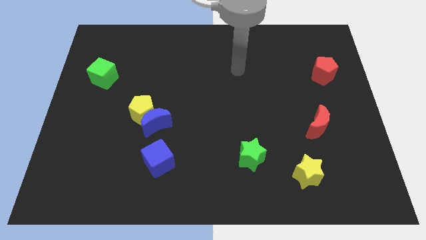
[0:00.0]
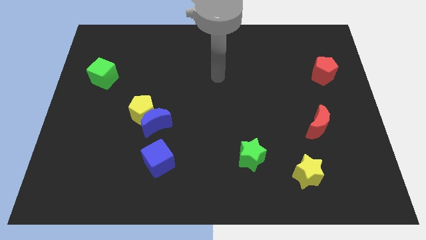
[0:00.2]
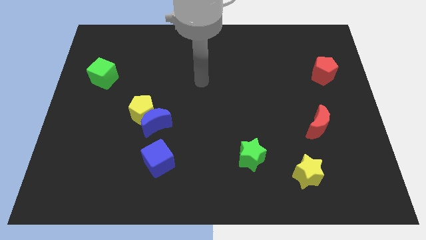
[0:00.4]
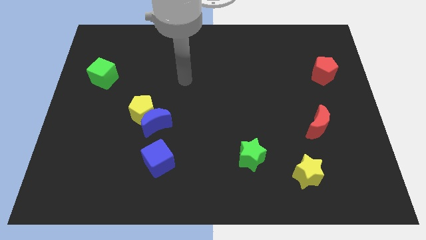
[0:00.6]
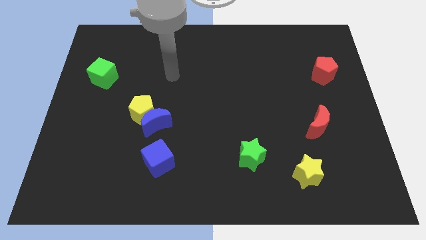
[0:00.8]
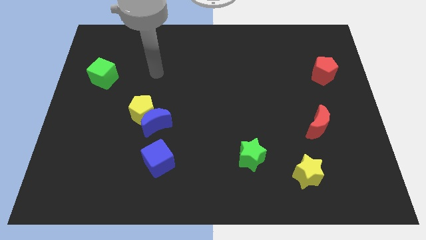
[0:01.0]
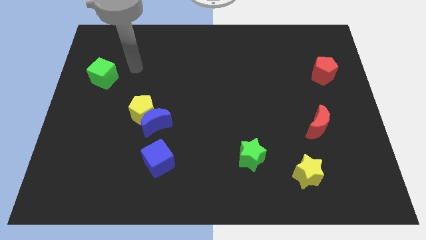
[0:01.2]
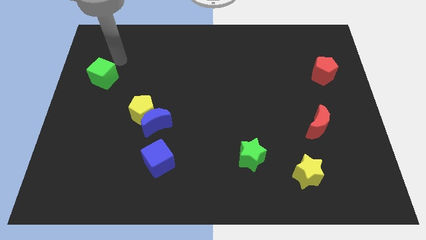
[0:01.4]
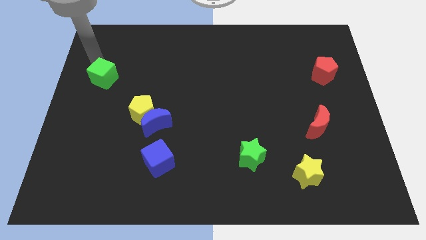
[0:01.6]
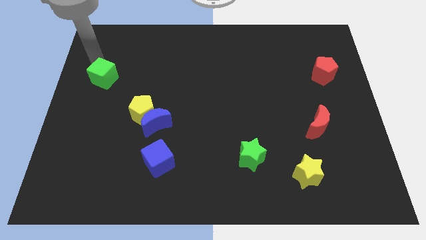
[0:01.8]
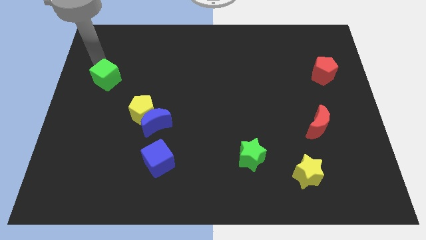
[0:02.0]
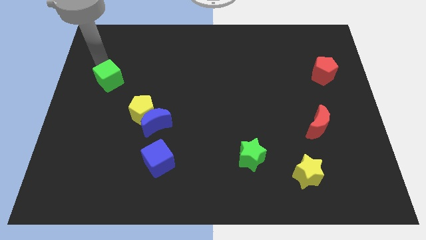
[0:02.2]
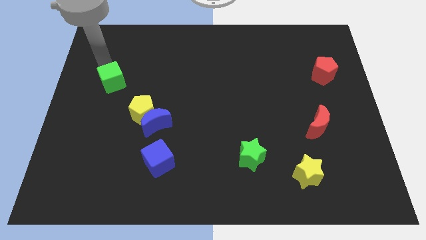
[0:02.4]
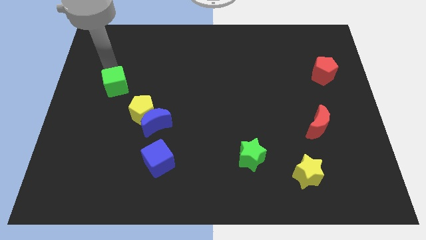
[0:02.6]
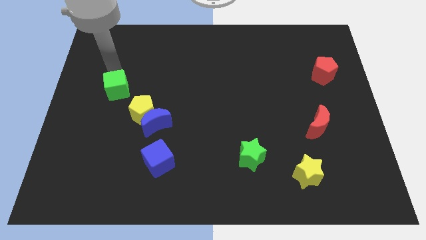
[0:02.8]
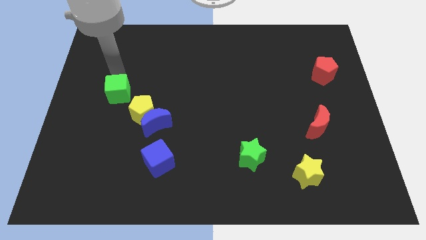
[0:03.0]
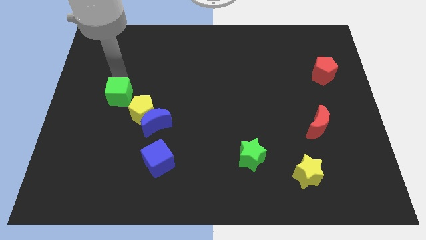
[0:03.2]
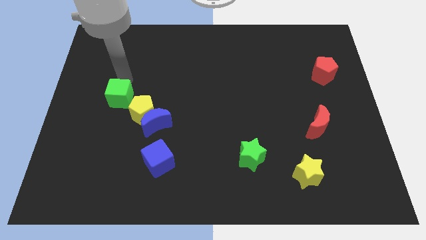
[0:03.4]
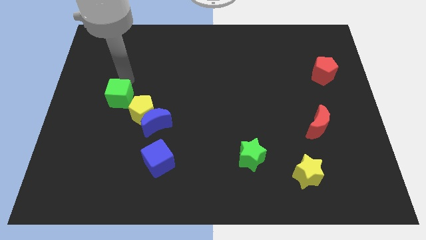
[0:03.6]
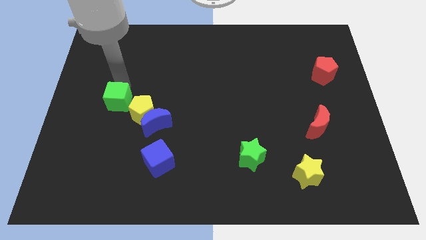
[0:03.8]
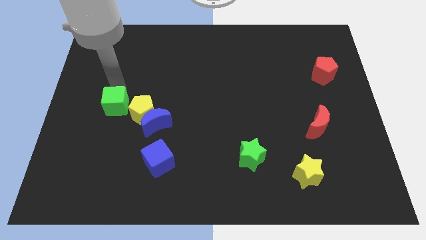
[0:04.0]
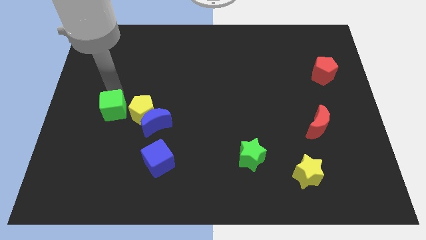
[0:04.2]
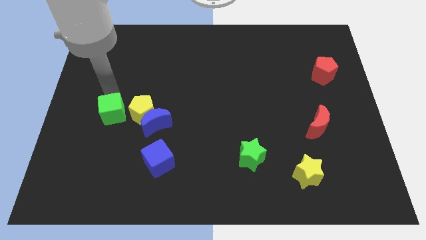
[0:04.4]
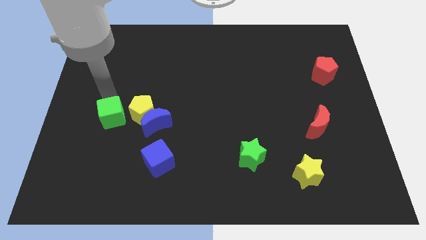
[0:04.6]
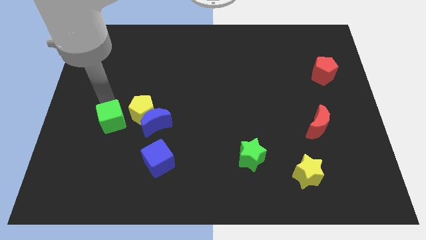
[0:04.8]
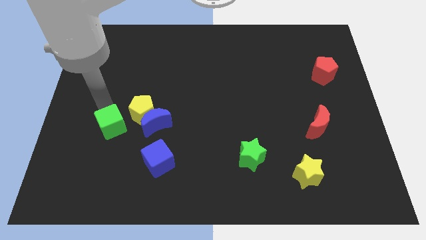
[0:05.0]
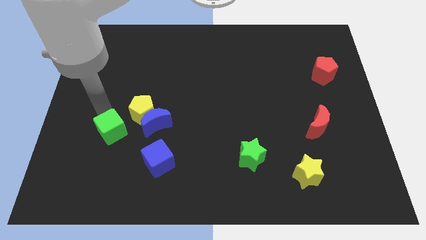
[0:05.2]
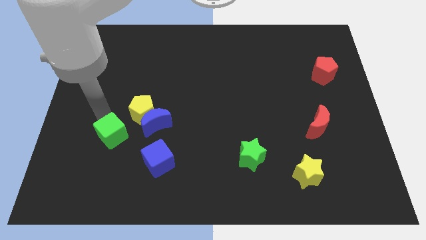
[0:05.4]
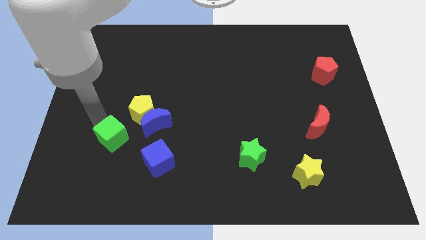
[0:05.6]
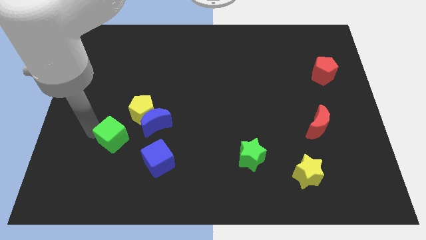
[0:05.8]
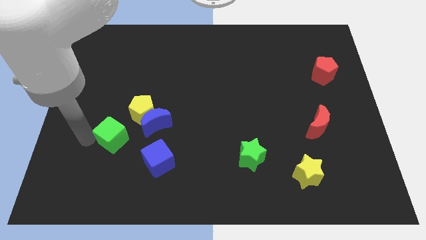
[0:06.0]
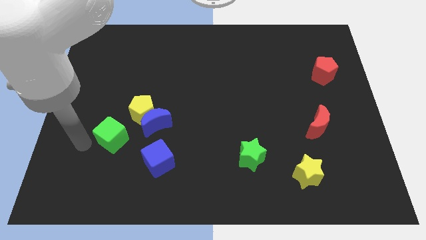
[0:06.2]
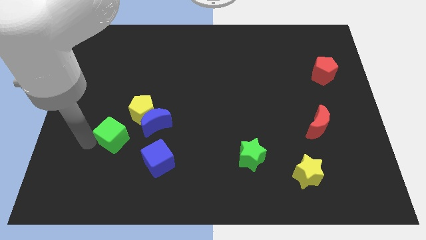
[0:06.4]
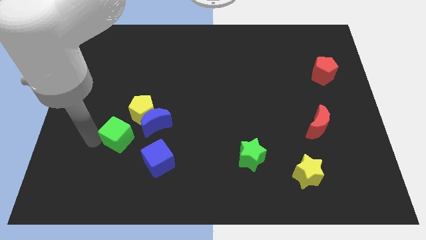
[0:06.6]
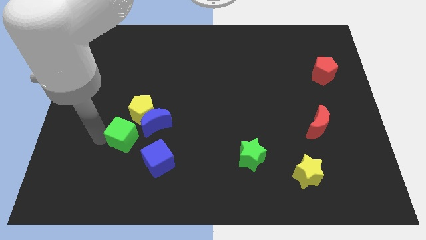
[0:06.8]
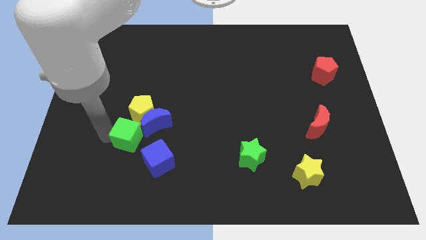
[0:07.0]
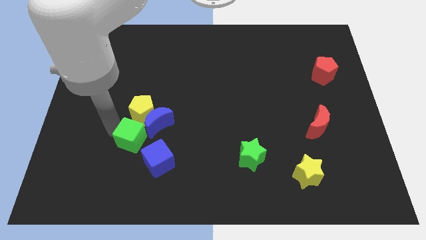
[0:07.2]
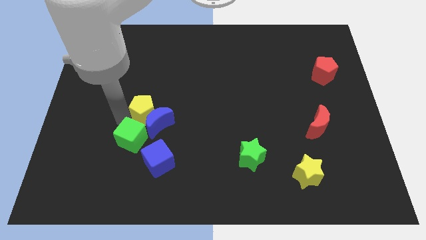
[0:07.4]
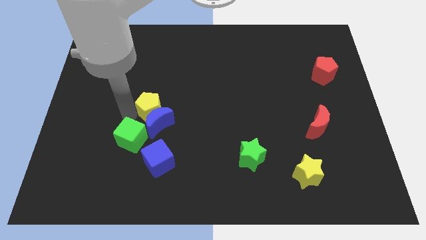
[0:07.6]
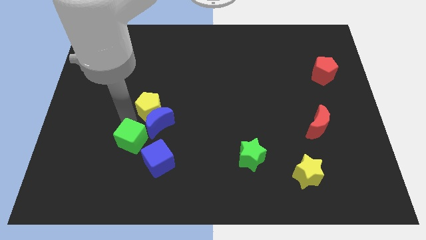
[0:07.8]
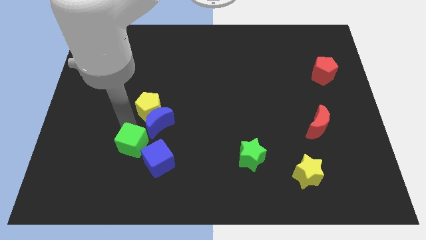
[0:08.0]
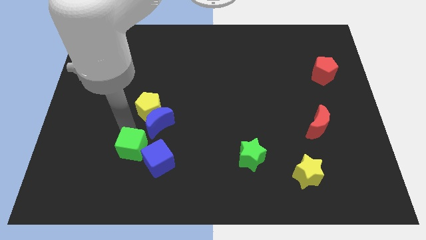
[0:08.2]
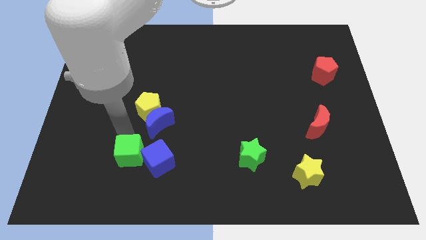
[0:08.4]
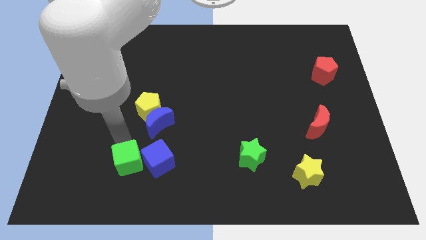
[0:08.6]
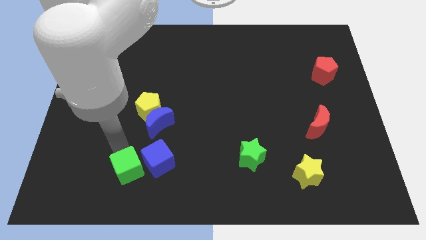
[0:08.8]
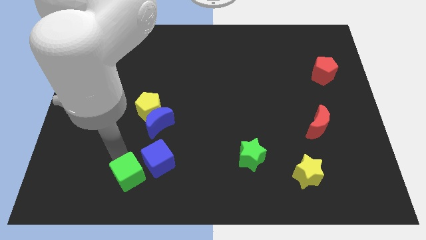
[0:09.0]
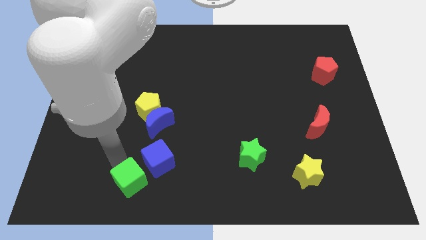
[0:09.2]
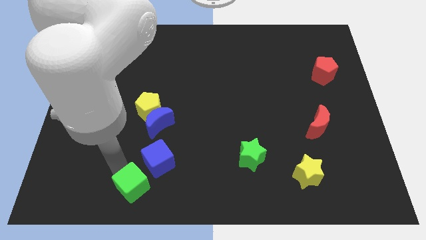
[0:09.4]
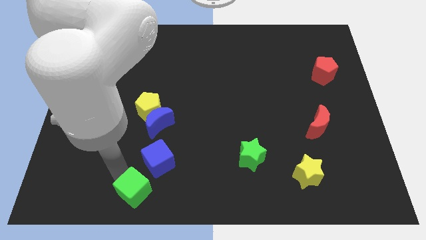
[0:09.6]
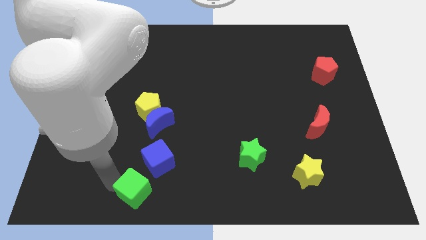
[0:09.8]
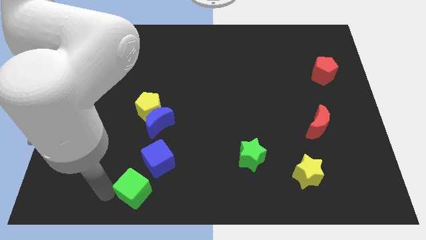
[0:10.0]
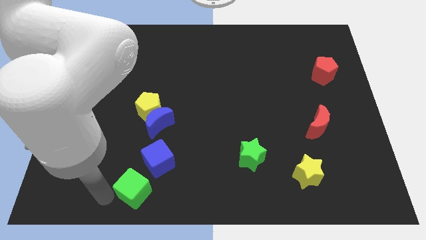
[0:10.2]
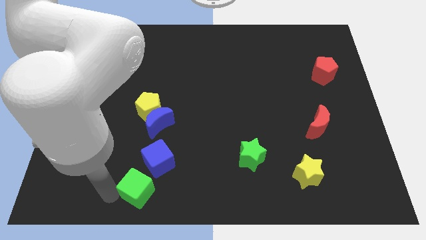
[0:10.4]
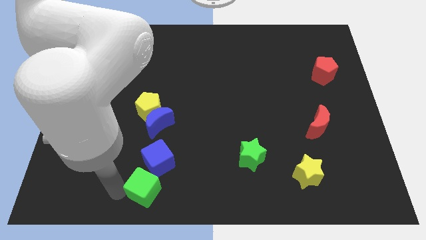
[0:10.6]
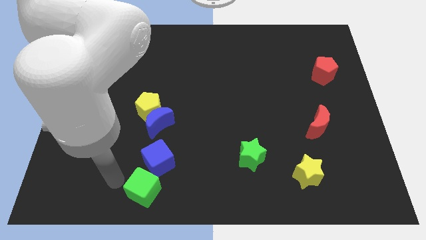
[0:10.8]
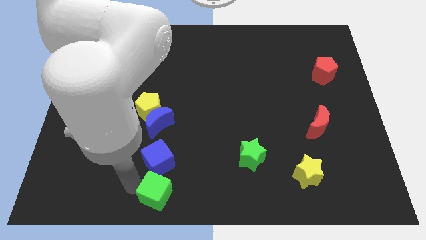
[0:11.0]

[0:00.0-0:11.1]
push the green cube to the bottom side
